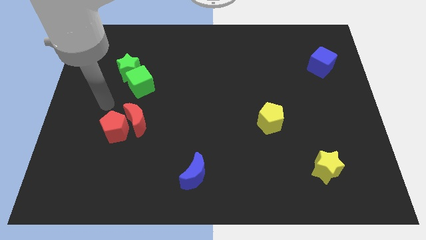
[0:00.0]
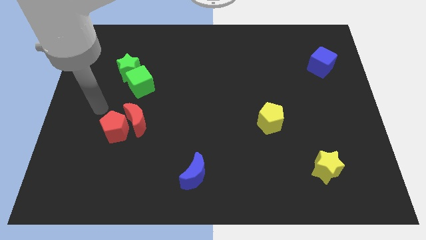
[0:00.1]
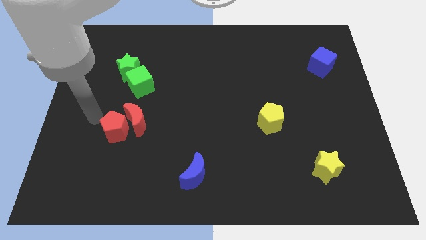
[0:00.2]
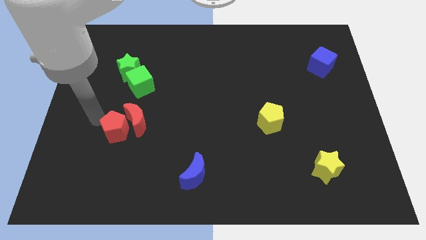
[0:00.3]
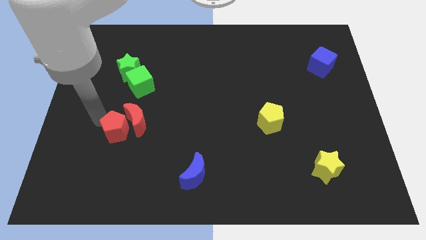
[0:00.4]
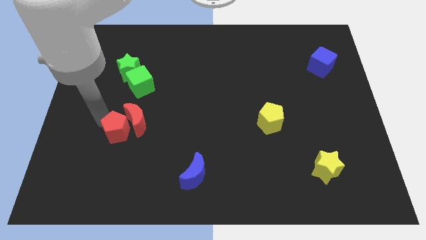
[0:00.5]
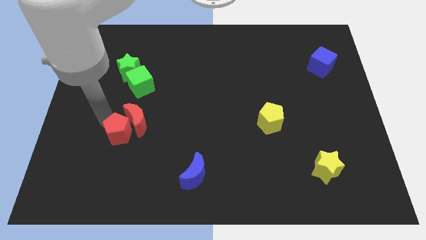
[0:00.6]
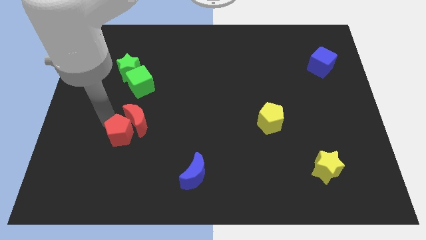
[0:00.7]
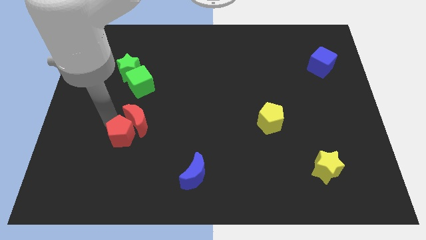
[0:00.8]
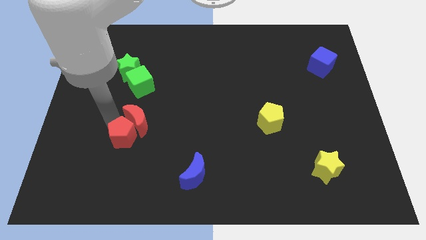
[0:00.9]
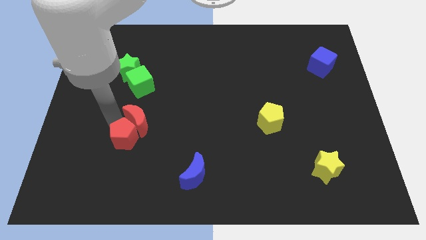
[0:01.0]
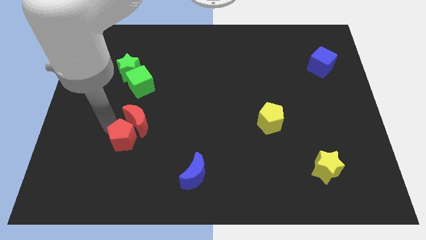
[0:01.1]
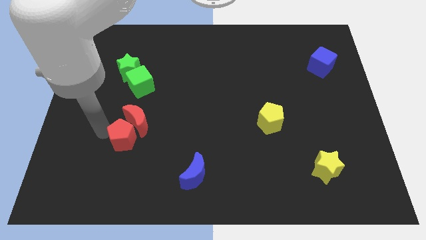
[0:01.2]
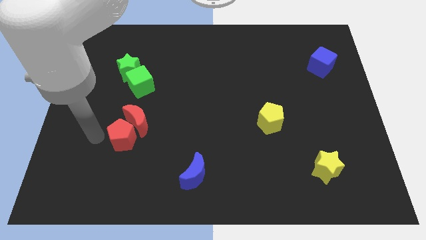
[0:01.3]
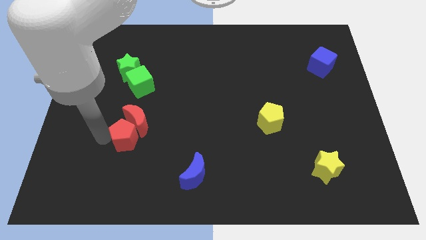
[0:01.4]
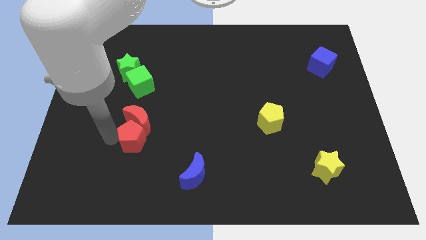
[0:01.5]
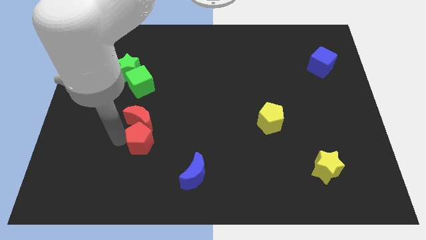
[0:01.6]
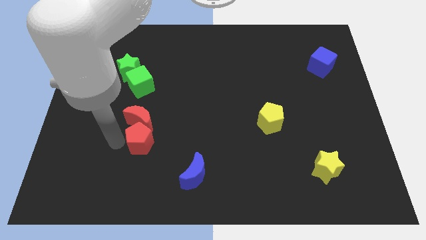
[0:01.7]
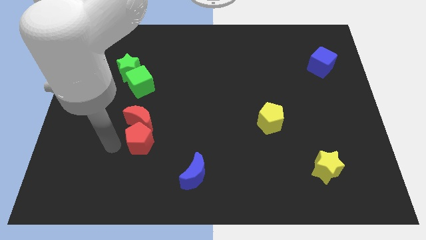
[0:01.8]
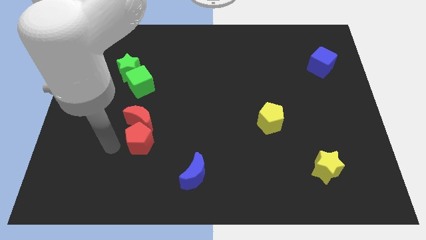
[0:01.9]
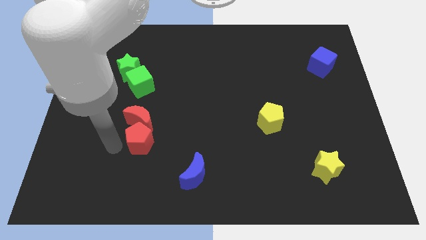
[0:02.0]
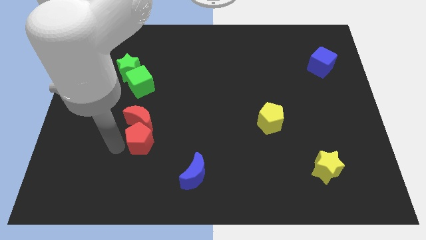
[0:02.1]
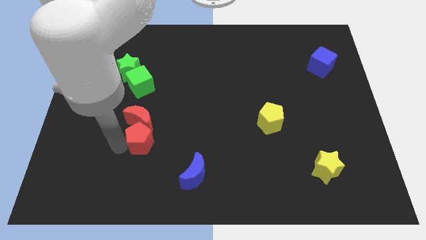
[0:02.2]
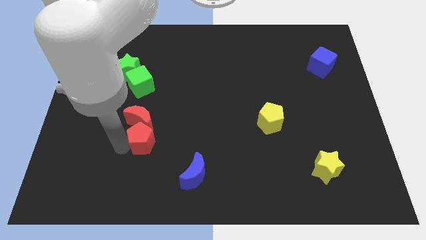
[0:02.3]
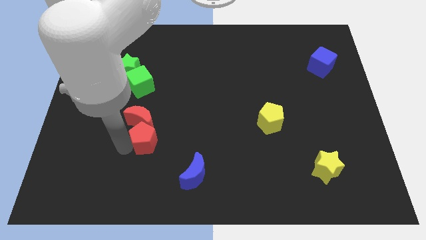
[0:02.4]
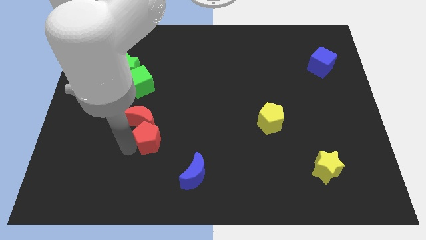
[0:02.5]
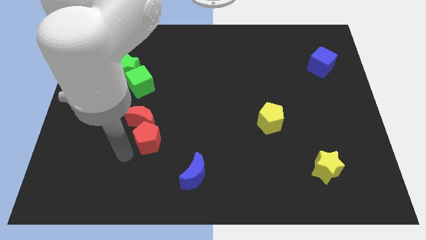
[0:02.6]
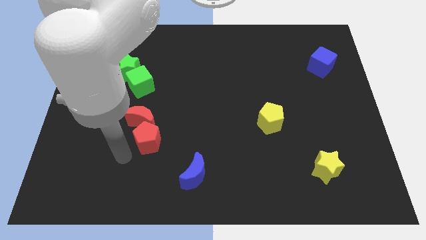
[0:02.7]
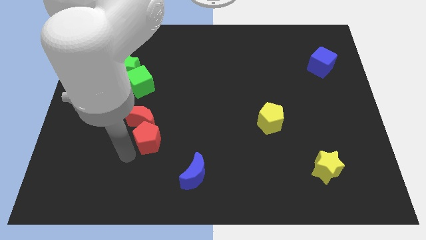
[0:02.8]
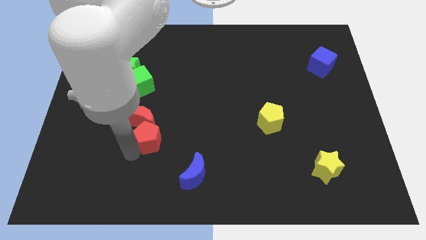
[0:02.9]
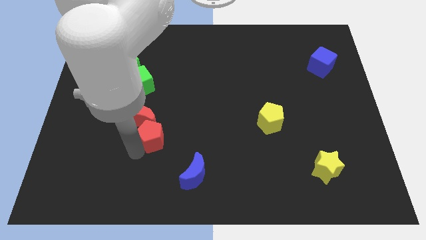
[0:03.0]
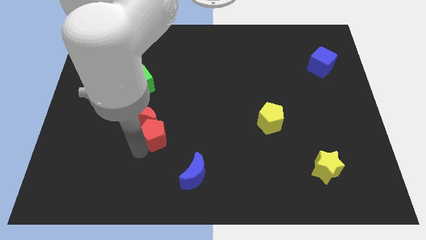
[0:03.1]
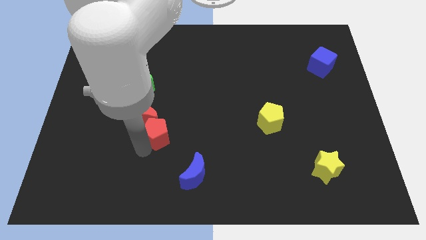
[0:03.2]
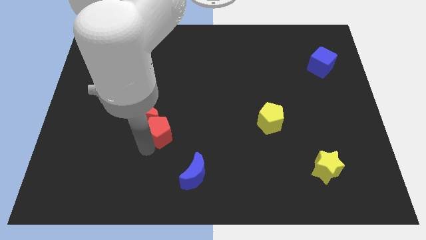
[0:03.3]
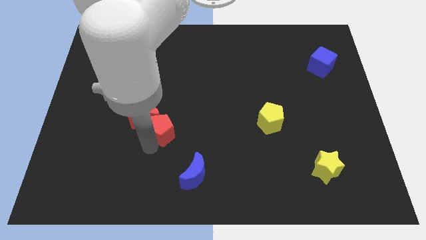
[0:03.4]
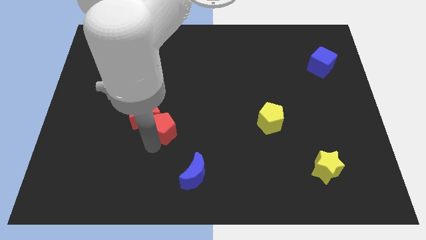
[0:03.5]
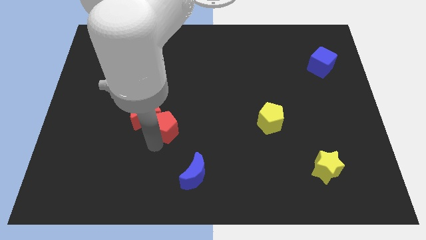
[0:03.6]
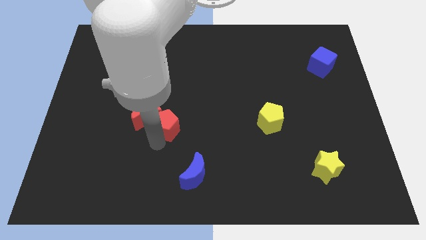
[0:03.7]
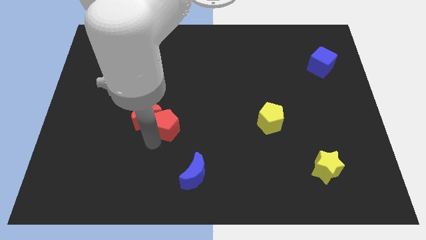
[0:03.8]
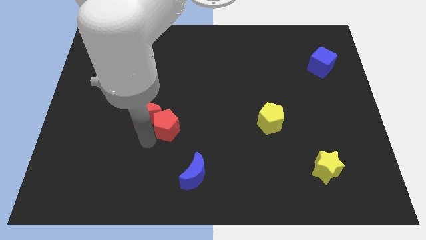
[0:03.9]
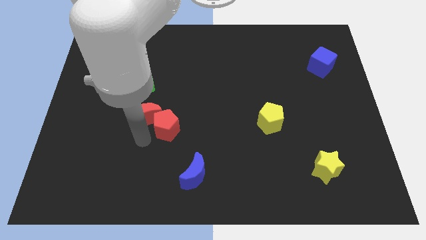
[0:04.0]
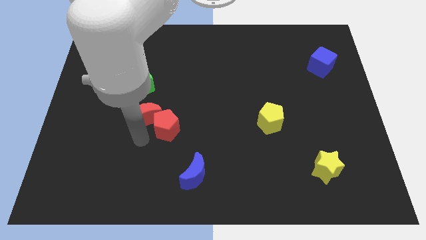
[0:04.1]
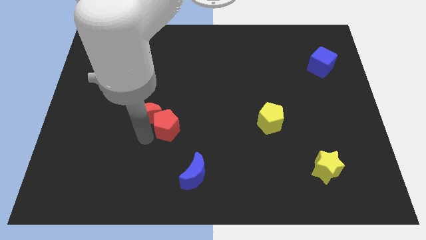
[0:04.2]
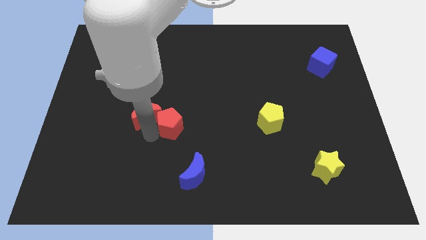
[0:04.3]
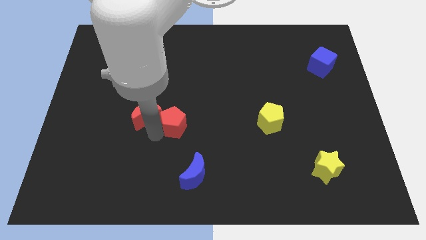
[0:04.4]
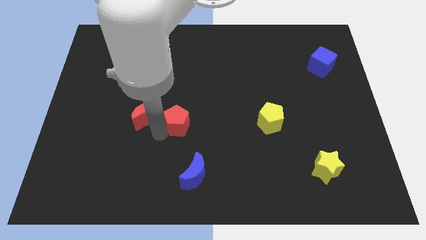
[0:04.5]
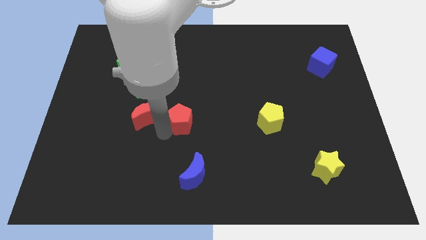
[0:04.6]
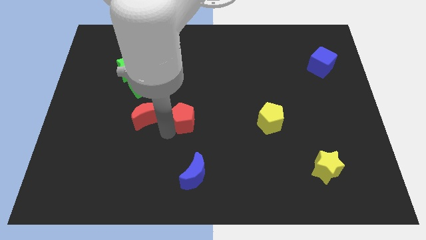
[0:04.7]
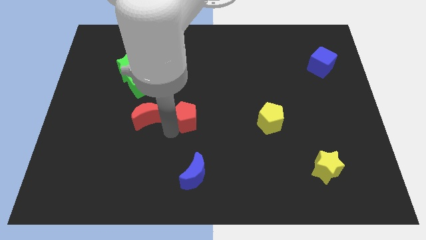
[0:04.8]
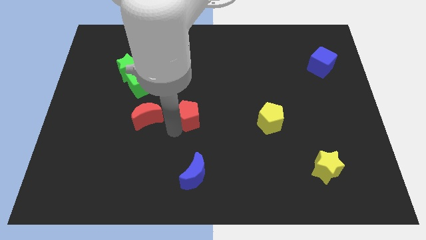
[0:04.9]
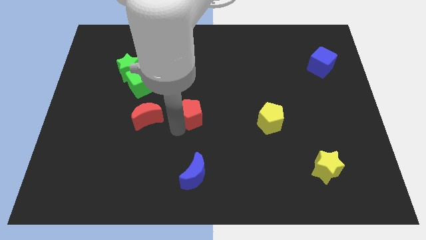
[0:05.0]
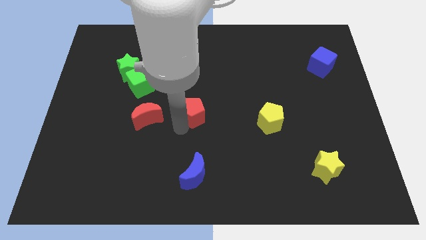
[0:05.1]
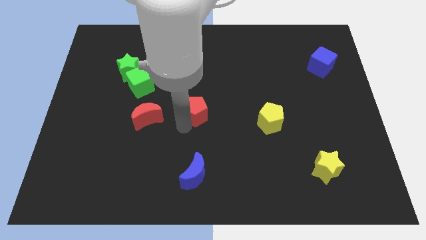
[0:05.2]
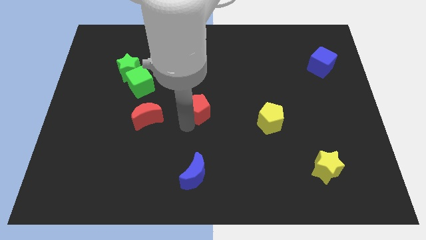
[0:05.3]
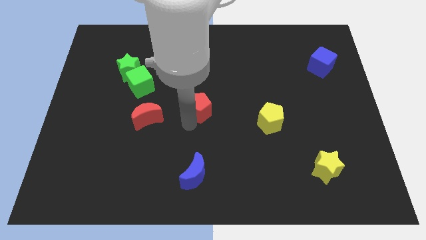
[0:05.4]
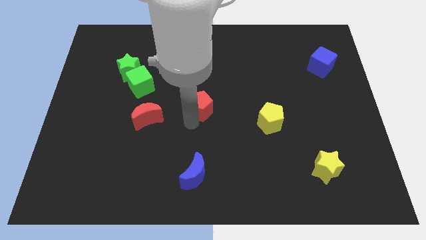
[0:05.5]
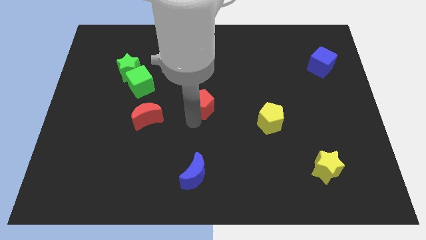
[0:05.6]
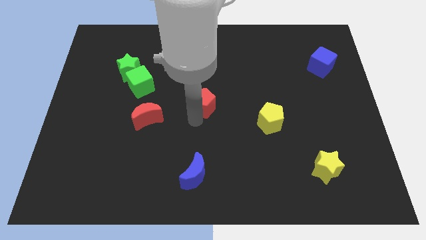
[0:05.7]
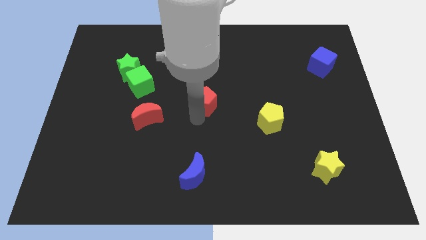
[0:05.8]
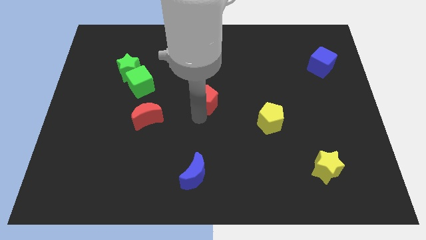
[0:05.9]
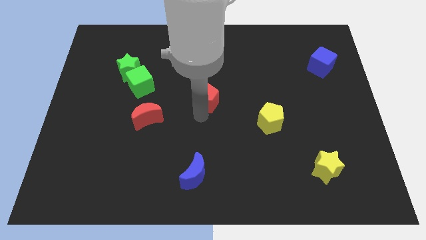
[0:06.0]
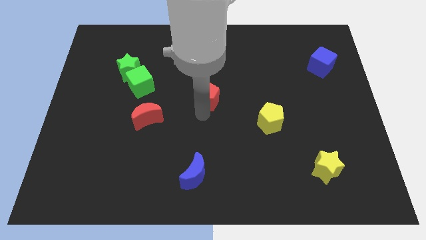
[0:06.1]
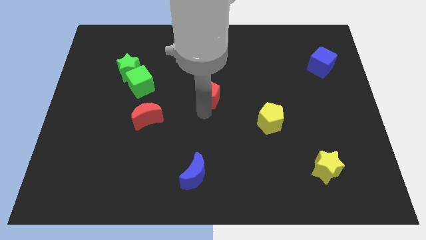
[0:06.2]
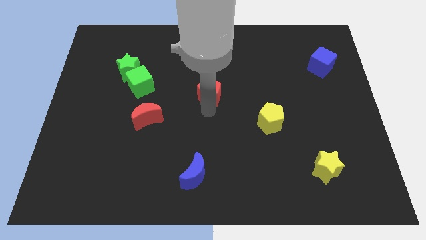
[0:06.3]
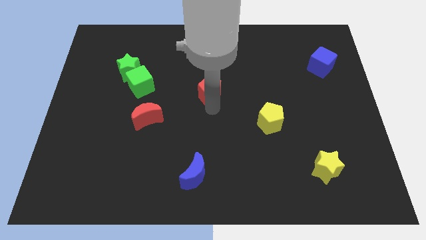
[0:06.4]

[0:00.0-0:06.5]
move the red pentagon diagonally upwards and right

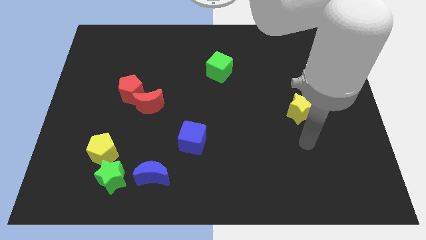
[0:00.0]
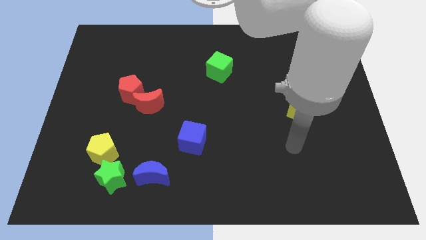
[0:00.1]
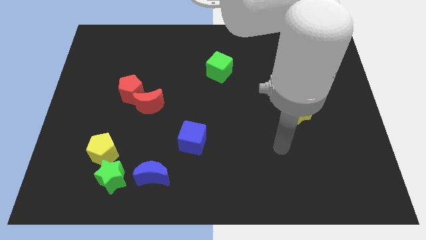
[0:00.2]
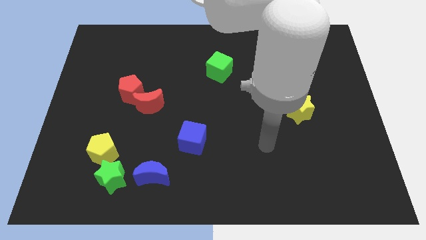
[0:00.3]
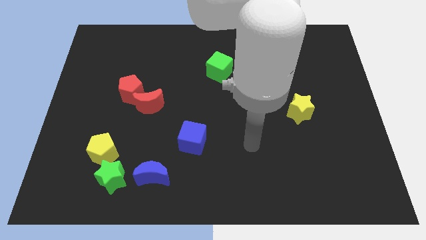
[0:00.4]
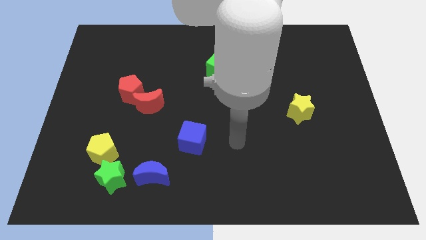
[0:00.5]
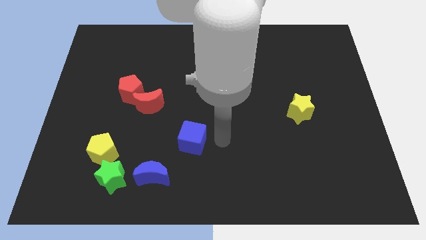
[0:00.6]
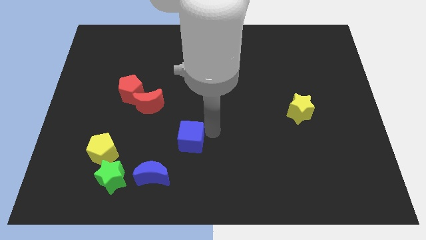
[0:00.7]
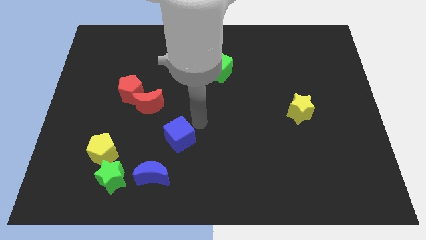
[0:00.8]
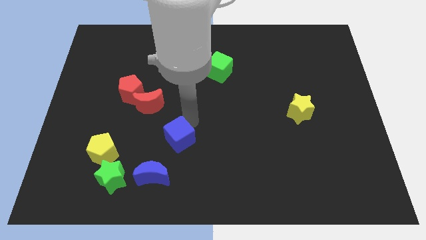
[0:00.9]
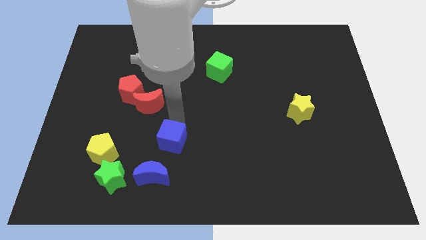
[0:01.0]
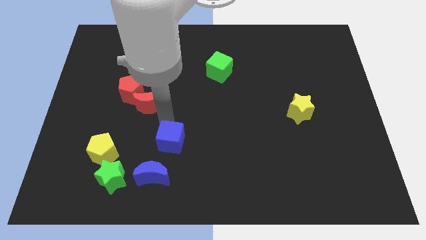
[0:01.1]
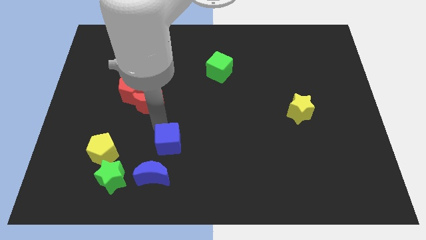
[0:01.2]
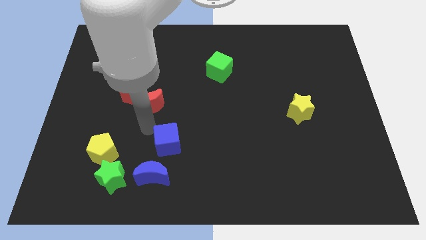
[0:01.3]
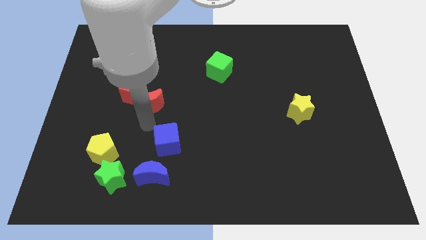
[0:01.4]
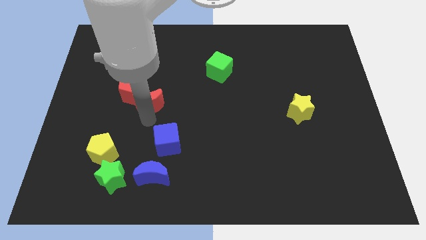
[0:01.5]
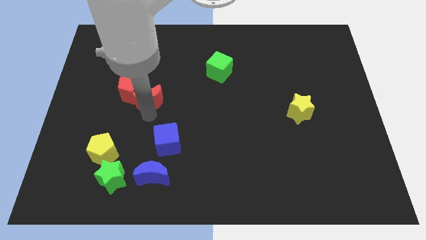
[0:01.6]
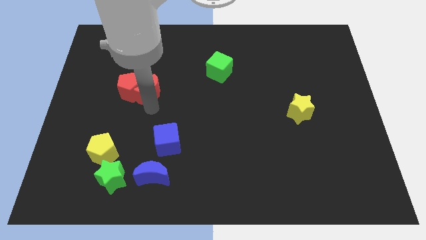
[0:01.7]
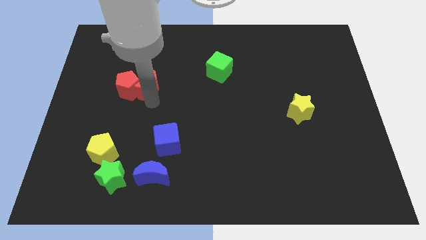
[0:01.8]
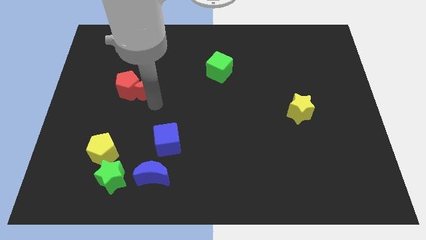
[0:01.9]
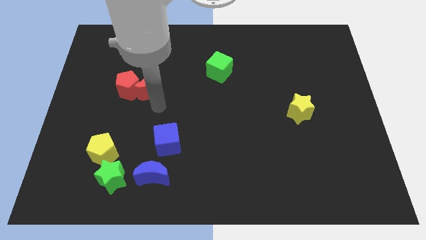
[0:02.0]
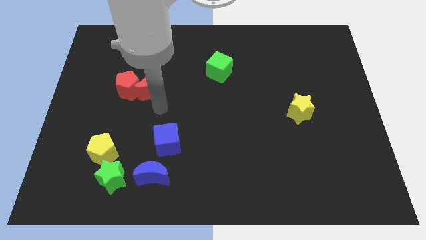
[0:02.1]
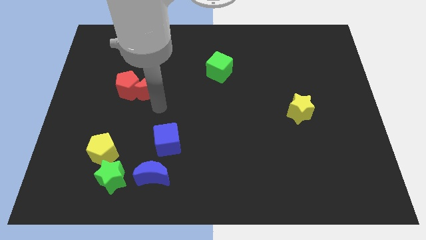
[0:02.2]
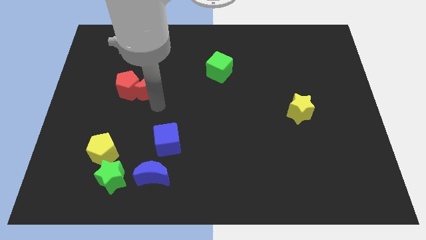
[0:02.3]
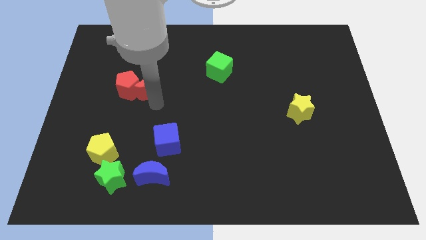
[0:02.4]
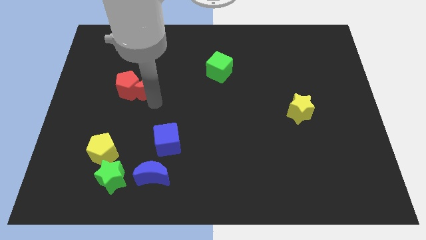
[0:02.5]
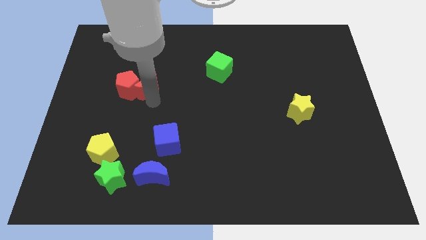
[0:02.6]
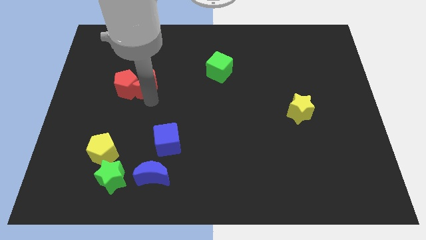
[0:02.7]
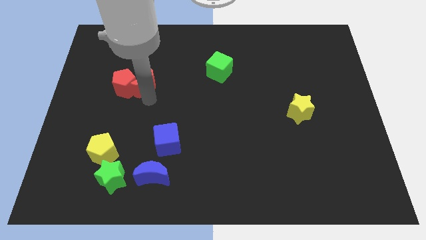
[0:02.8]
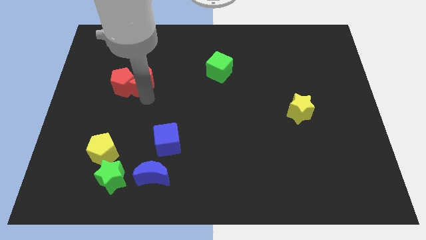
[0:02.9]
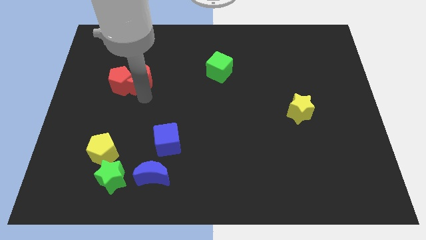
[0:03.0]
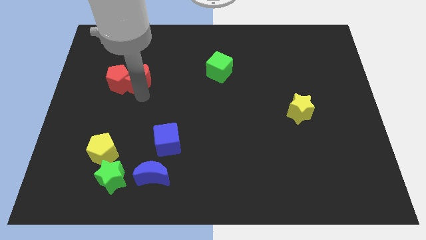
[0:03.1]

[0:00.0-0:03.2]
push the red moon diagonally upwards and to the left somewhat
